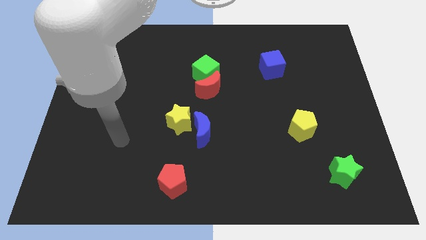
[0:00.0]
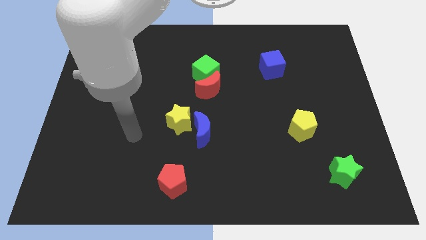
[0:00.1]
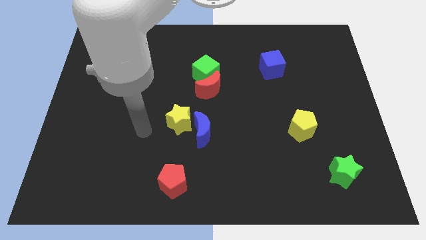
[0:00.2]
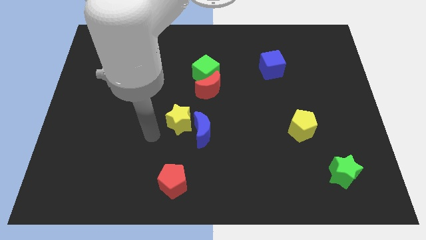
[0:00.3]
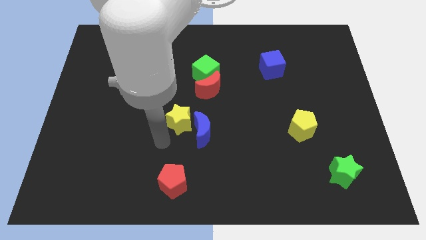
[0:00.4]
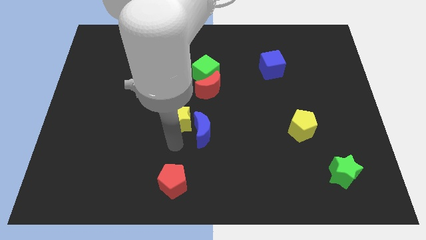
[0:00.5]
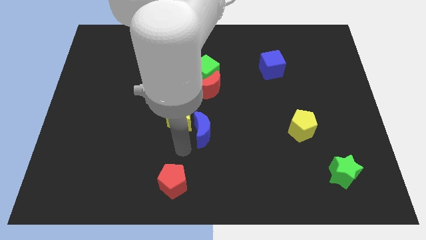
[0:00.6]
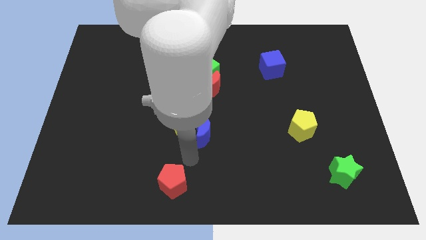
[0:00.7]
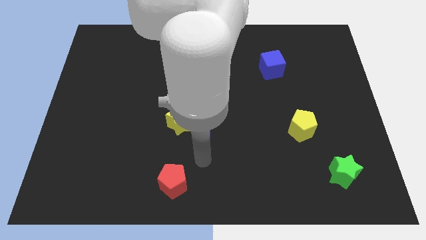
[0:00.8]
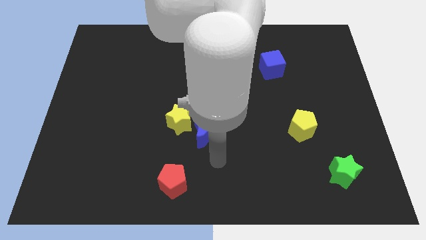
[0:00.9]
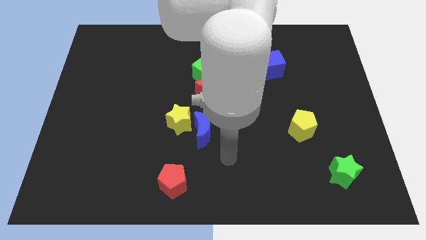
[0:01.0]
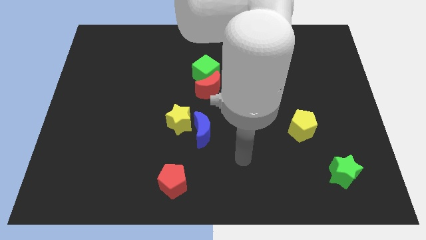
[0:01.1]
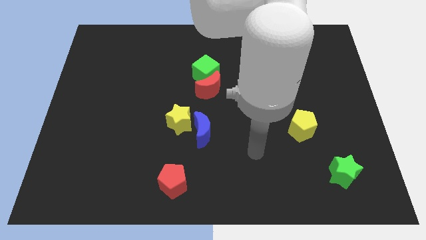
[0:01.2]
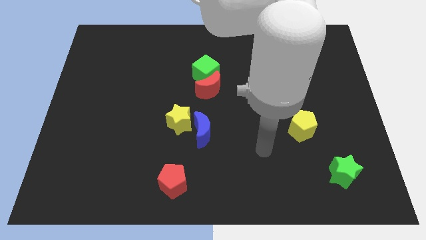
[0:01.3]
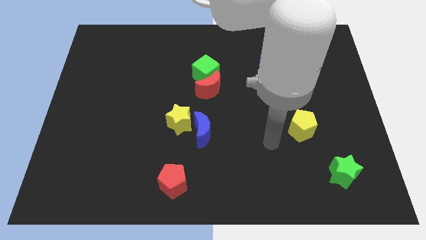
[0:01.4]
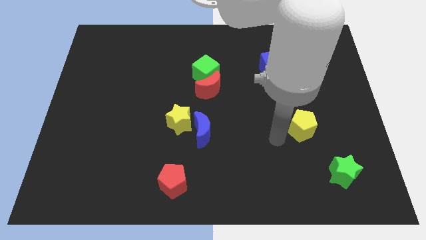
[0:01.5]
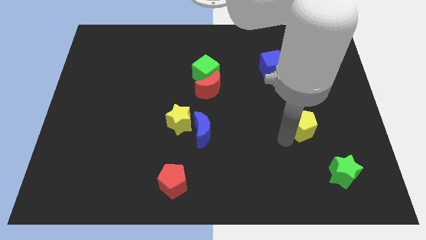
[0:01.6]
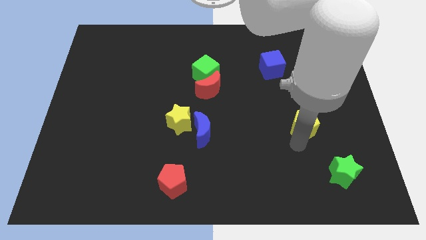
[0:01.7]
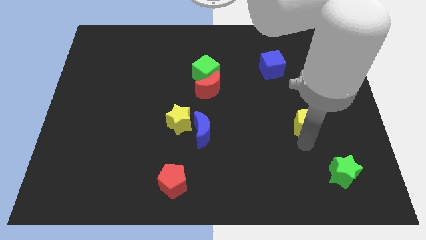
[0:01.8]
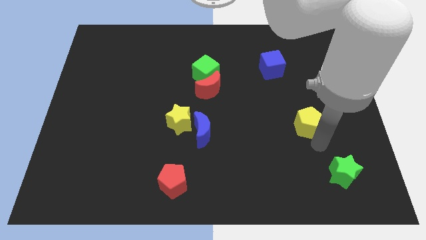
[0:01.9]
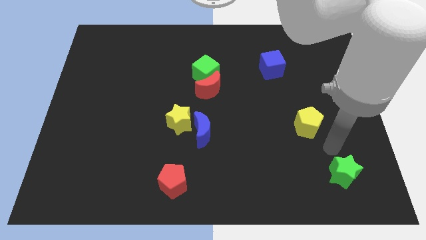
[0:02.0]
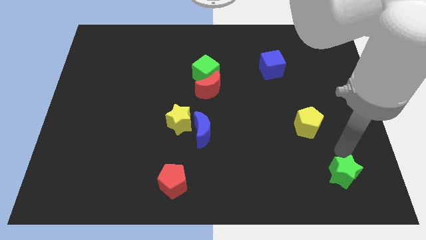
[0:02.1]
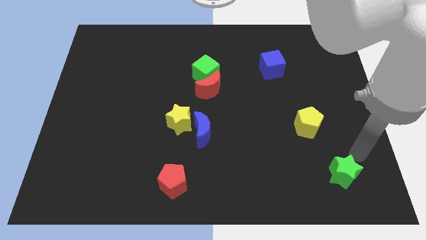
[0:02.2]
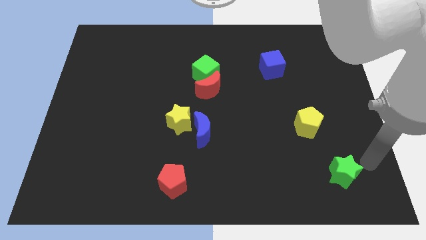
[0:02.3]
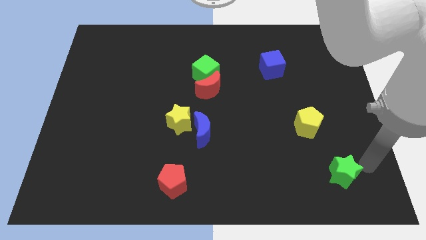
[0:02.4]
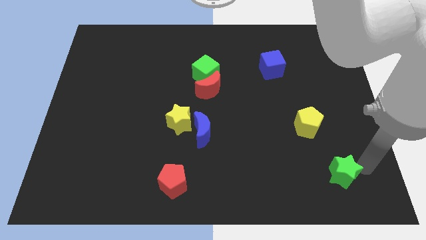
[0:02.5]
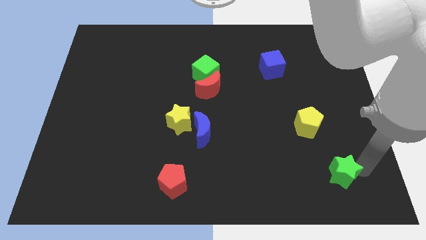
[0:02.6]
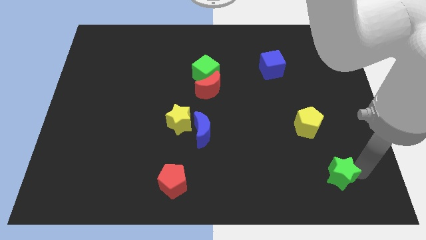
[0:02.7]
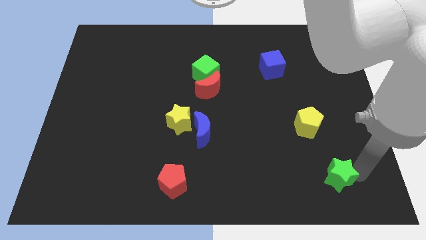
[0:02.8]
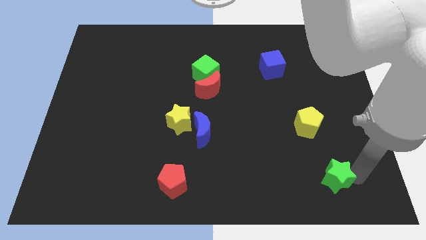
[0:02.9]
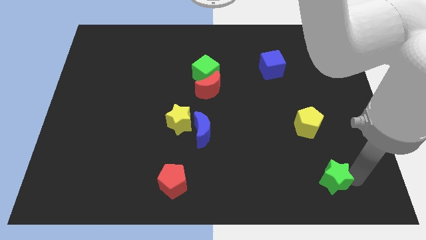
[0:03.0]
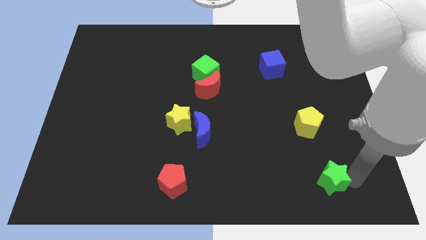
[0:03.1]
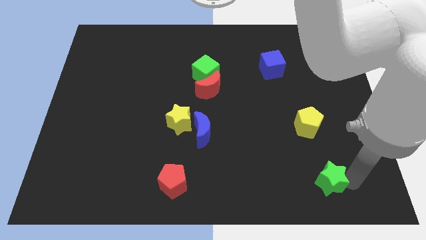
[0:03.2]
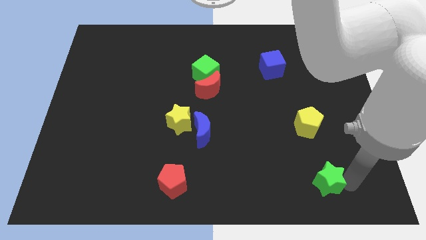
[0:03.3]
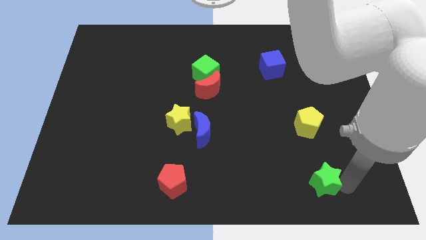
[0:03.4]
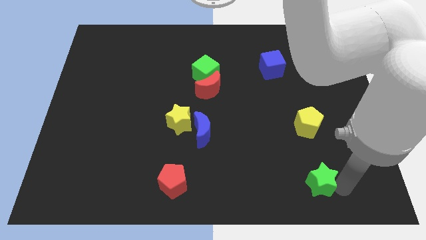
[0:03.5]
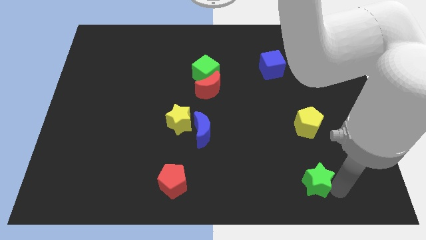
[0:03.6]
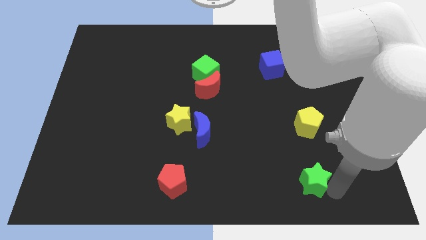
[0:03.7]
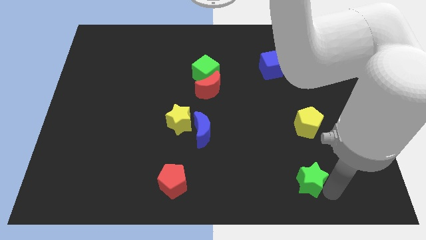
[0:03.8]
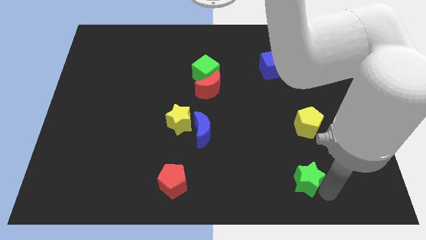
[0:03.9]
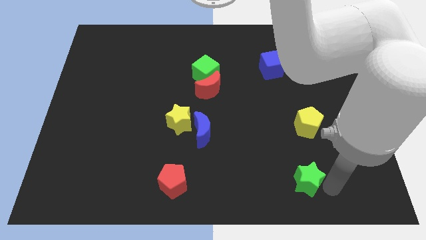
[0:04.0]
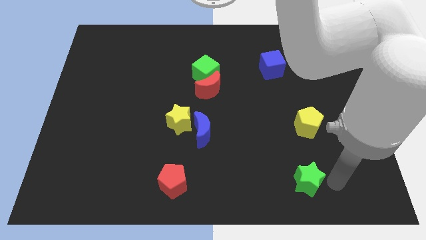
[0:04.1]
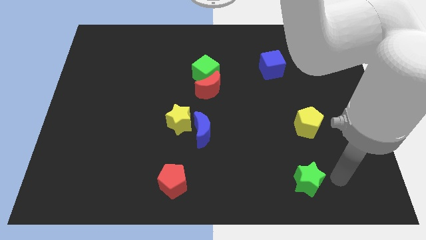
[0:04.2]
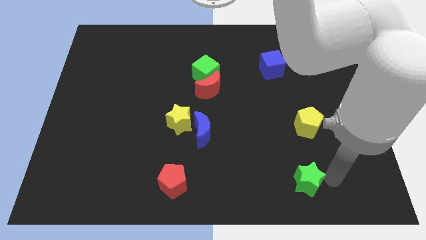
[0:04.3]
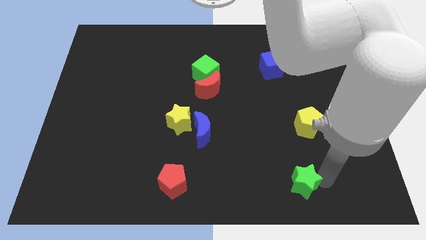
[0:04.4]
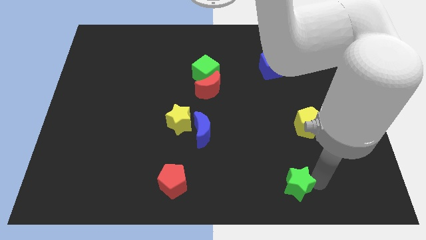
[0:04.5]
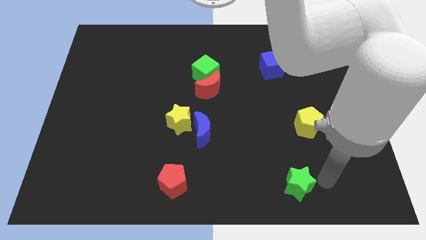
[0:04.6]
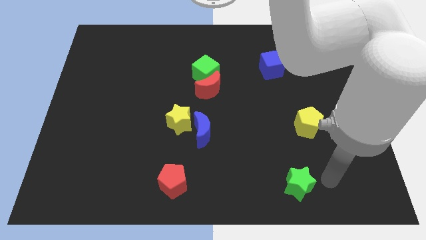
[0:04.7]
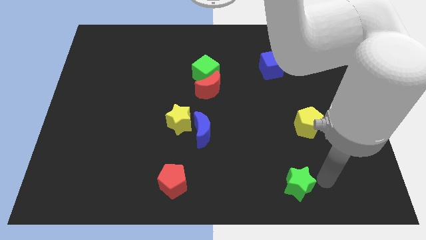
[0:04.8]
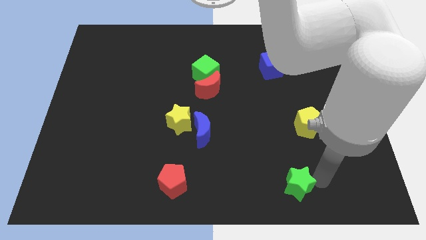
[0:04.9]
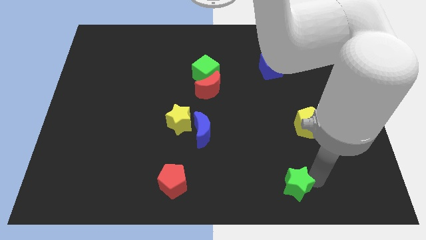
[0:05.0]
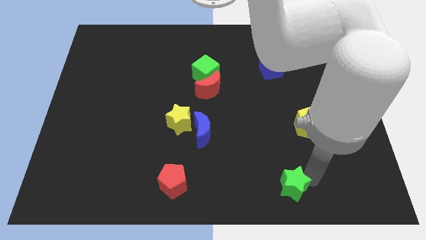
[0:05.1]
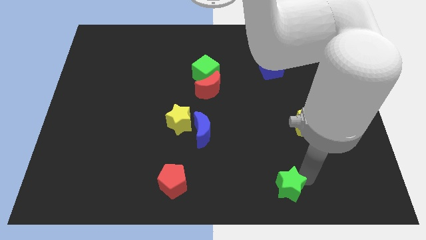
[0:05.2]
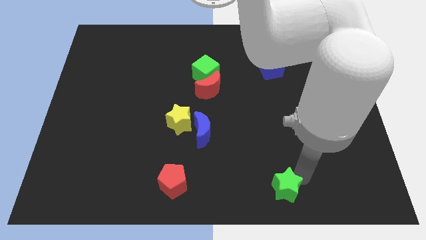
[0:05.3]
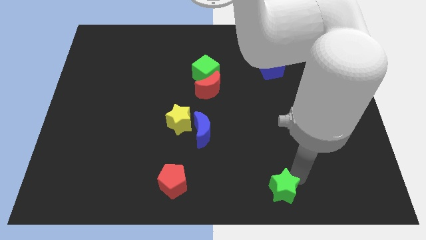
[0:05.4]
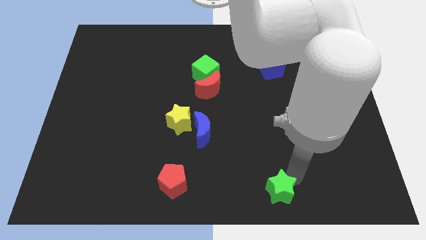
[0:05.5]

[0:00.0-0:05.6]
slide the green star to the bottom

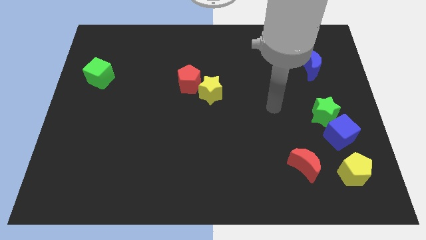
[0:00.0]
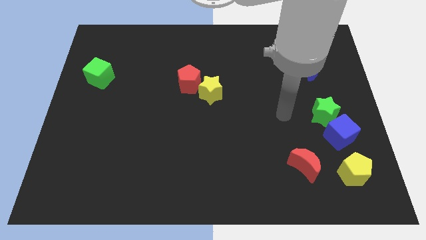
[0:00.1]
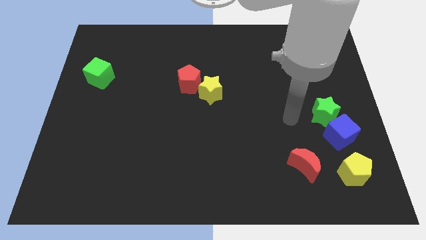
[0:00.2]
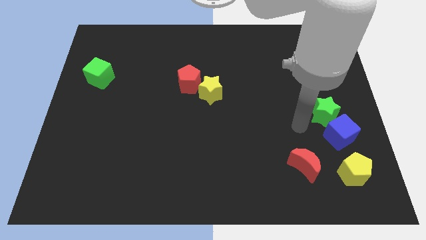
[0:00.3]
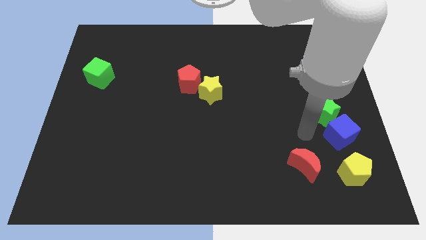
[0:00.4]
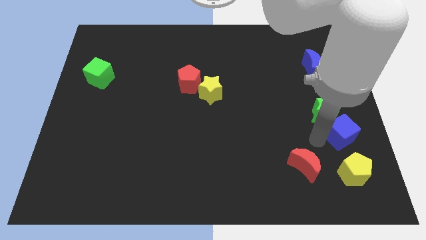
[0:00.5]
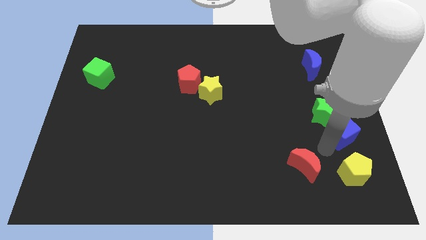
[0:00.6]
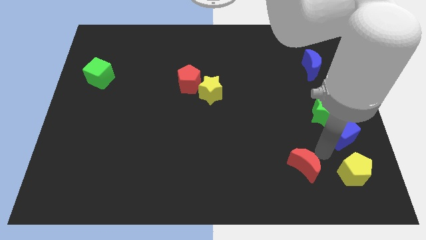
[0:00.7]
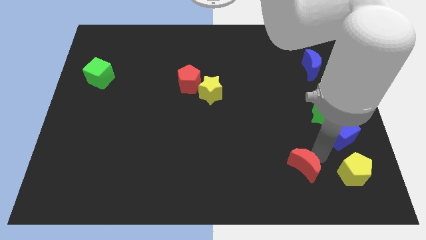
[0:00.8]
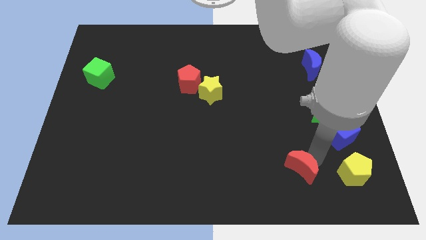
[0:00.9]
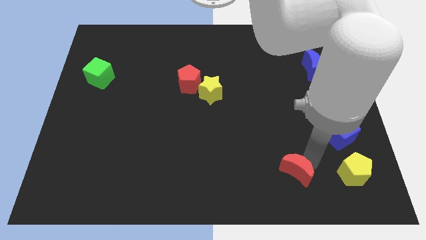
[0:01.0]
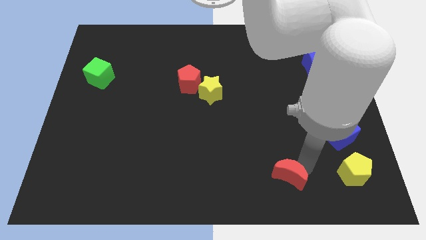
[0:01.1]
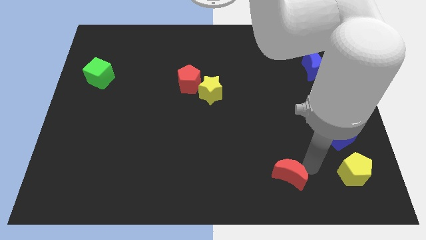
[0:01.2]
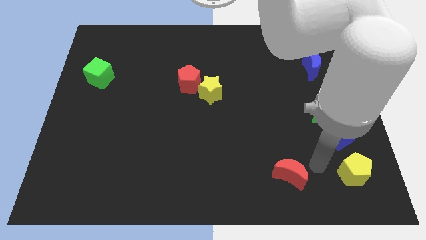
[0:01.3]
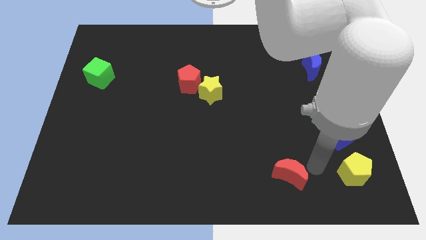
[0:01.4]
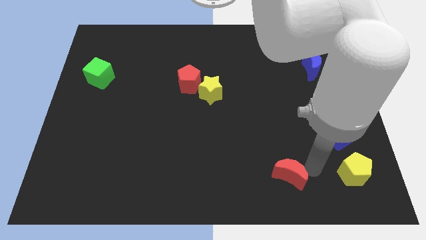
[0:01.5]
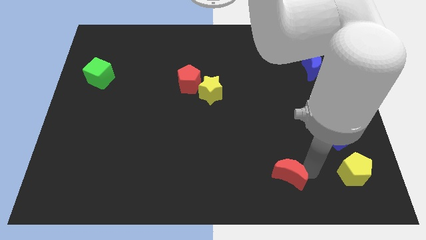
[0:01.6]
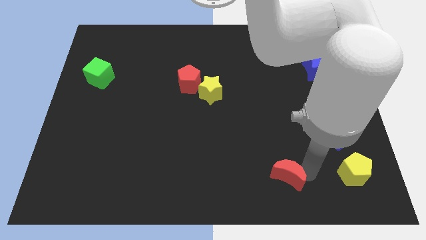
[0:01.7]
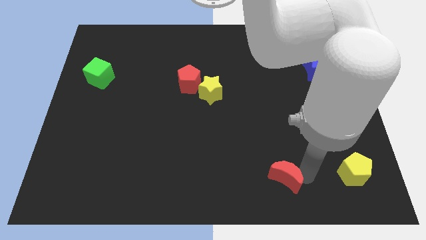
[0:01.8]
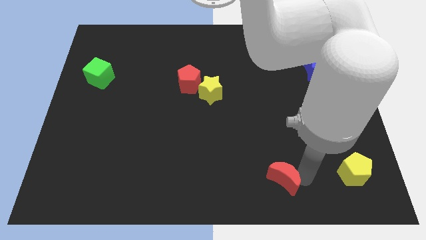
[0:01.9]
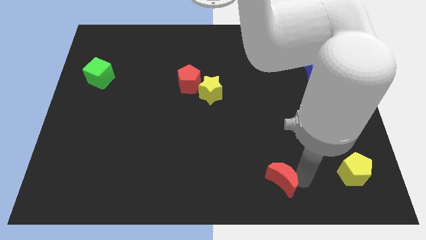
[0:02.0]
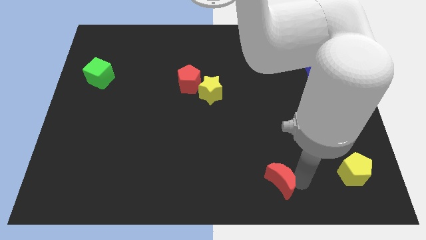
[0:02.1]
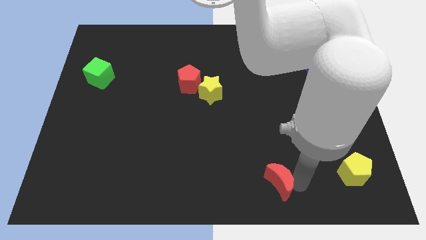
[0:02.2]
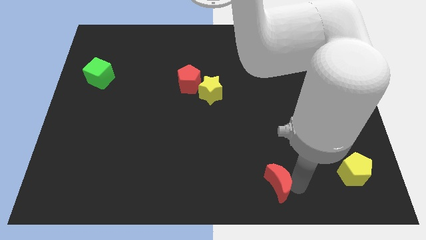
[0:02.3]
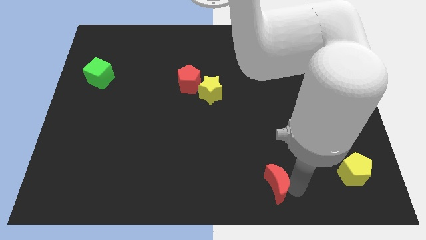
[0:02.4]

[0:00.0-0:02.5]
push the red moon to the bottom side
